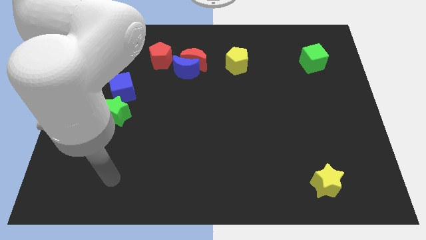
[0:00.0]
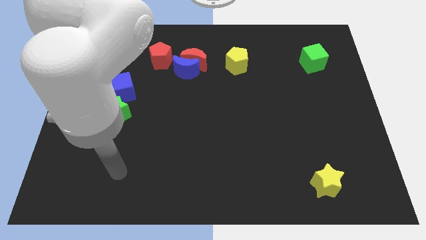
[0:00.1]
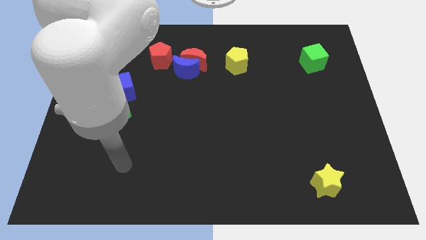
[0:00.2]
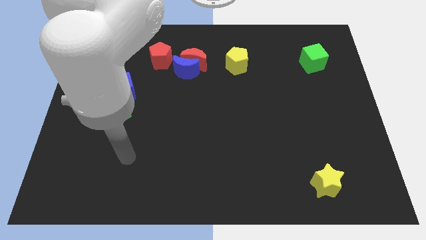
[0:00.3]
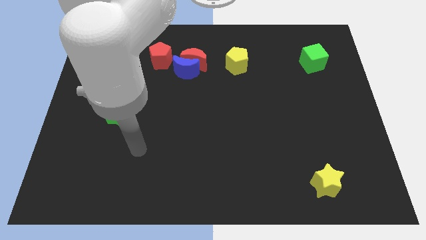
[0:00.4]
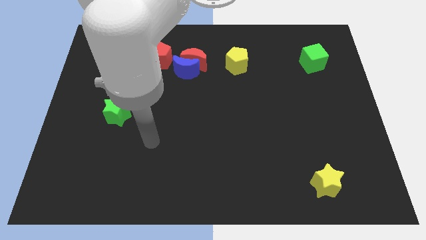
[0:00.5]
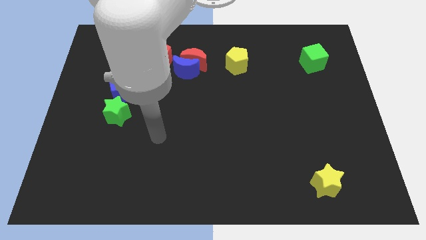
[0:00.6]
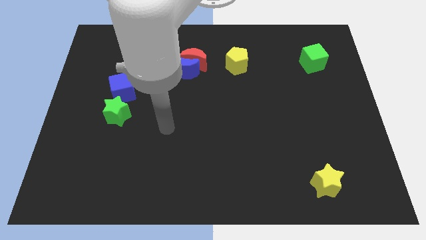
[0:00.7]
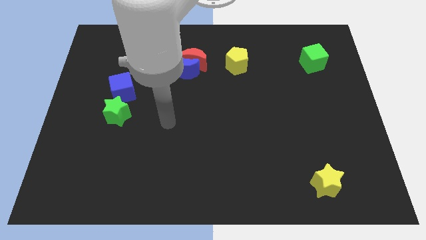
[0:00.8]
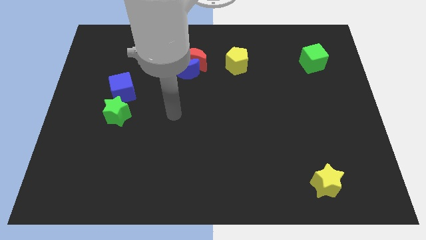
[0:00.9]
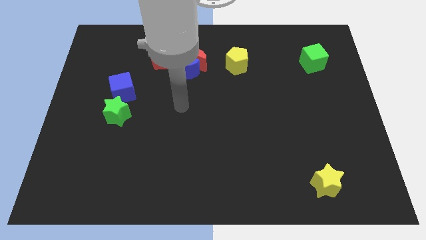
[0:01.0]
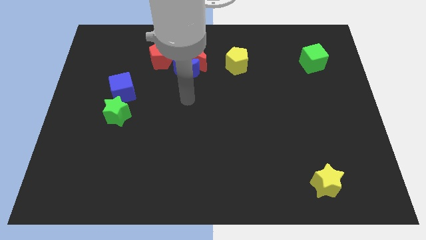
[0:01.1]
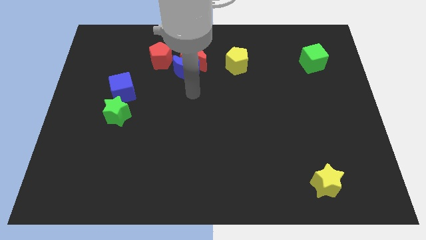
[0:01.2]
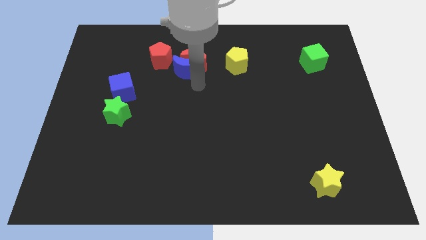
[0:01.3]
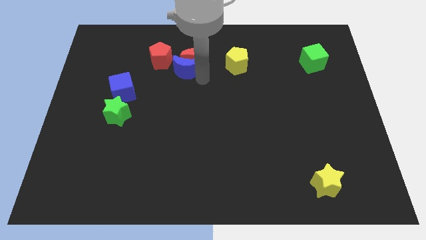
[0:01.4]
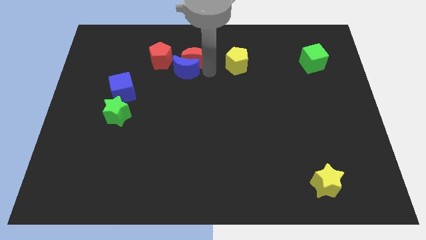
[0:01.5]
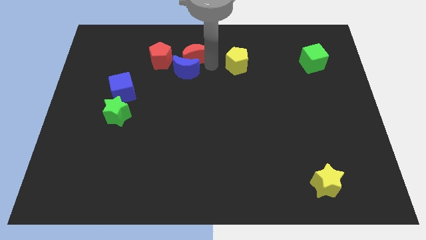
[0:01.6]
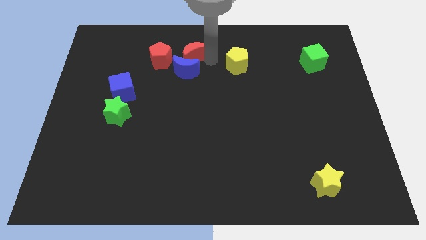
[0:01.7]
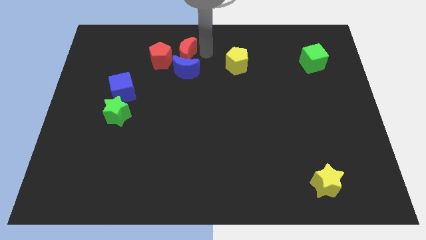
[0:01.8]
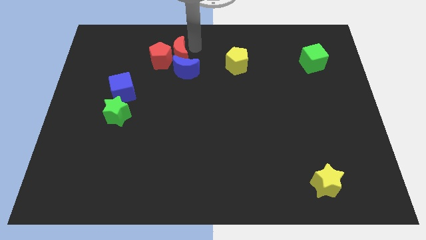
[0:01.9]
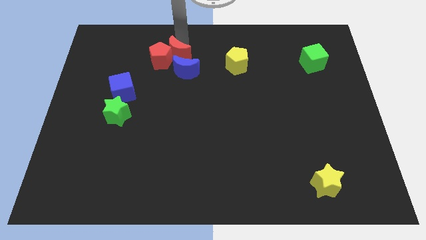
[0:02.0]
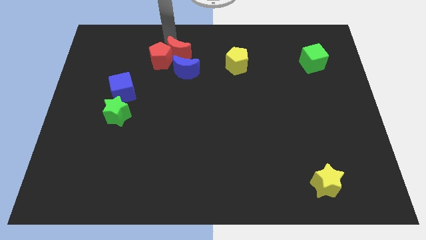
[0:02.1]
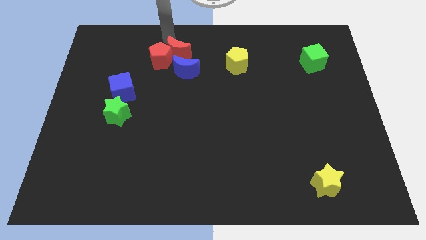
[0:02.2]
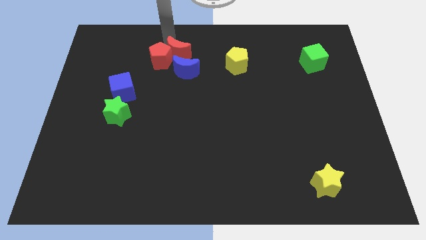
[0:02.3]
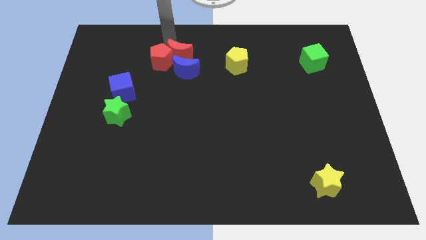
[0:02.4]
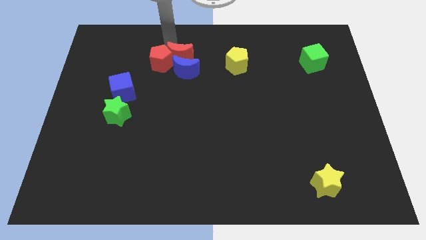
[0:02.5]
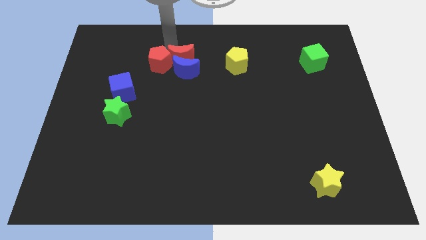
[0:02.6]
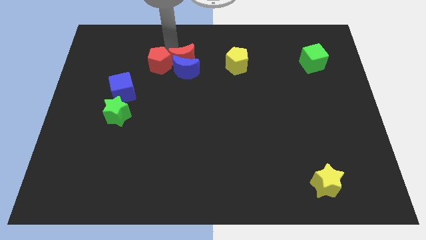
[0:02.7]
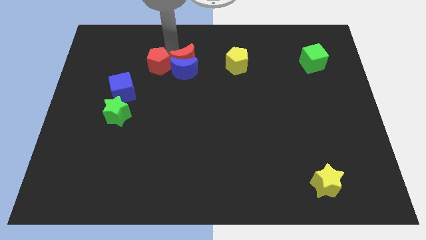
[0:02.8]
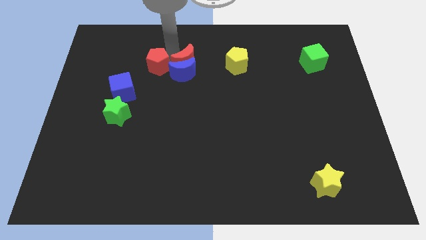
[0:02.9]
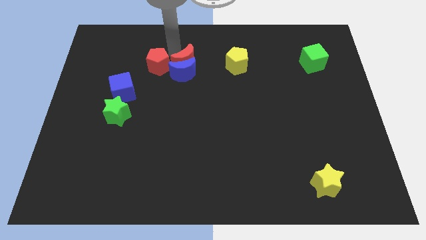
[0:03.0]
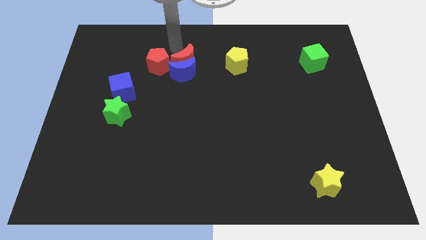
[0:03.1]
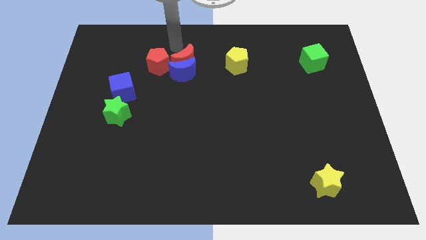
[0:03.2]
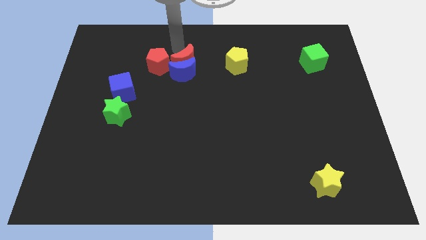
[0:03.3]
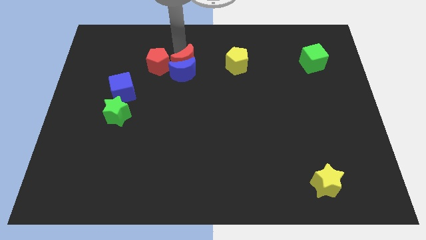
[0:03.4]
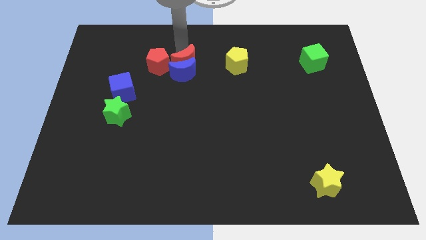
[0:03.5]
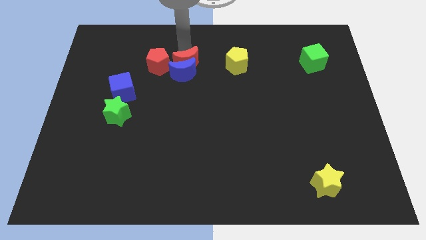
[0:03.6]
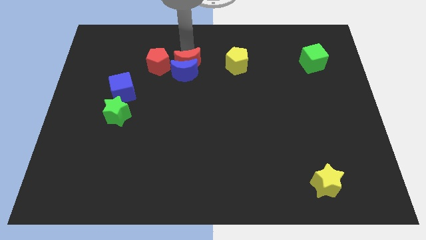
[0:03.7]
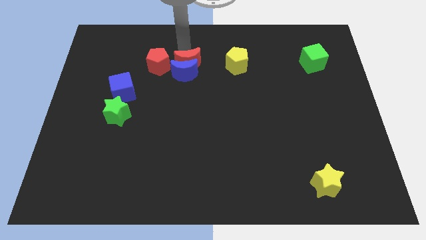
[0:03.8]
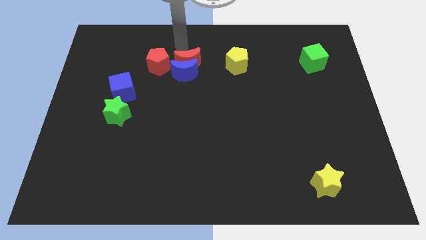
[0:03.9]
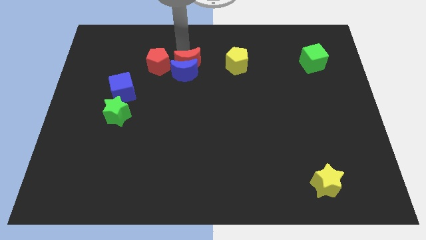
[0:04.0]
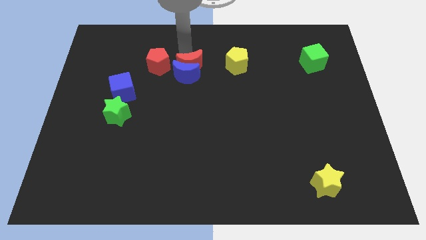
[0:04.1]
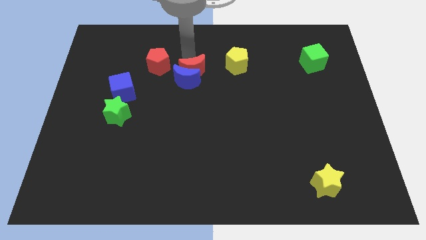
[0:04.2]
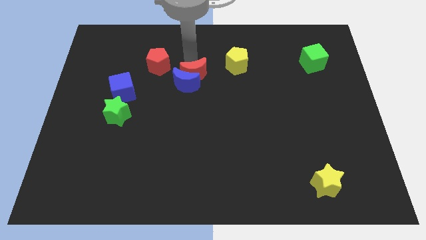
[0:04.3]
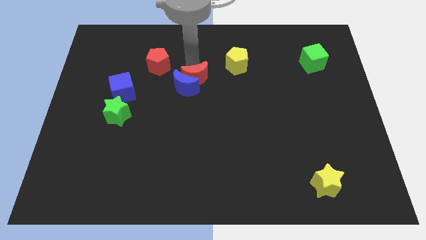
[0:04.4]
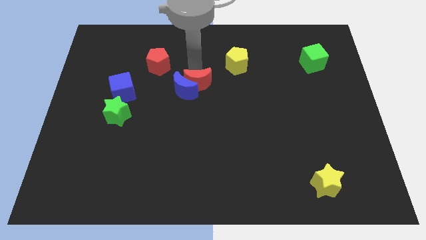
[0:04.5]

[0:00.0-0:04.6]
slightly push the red moon downwards

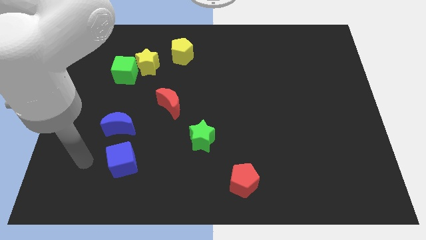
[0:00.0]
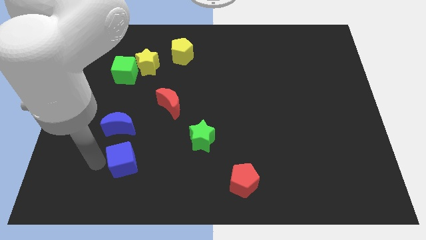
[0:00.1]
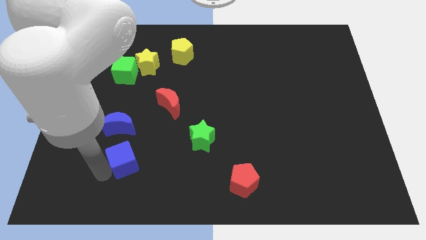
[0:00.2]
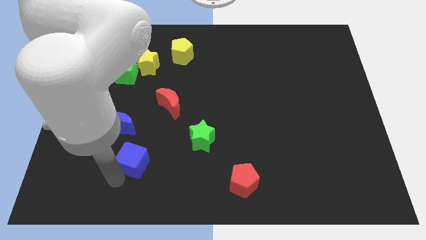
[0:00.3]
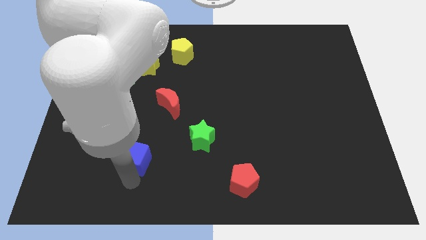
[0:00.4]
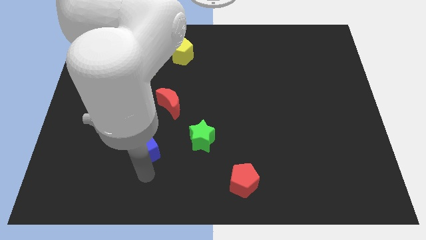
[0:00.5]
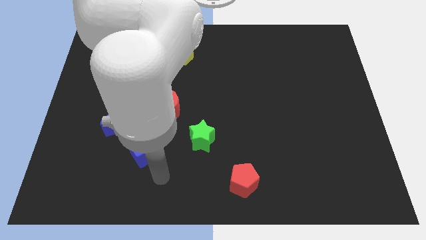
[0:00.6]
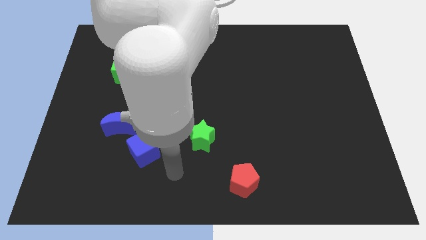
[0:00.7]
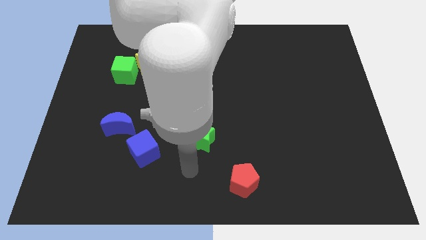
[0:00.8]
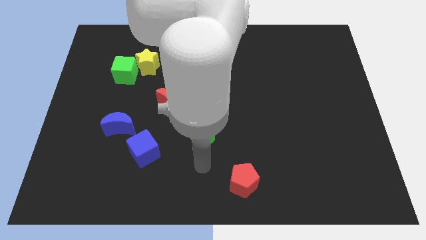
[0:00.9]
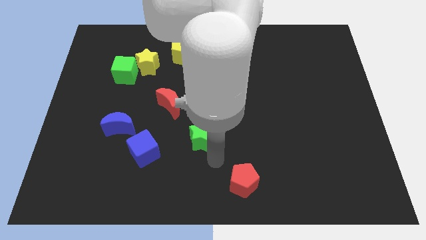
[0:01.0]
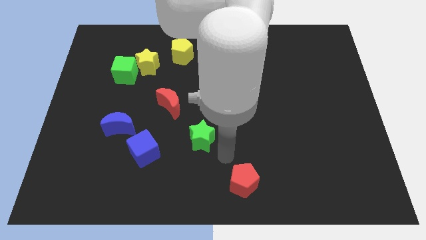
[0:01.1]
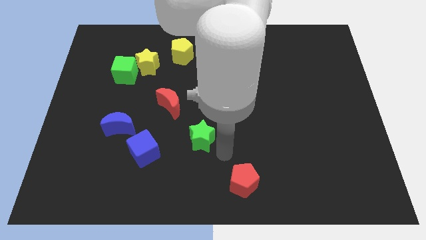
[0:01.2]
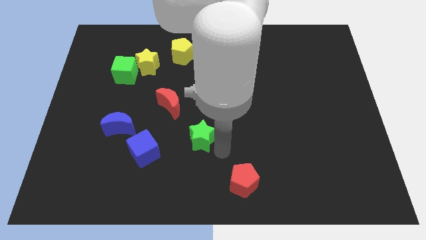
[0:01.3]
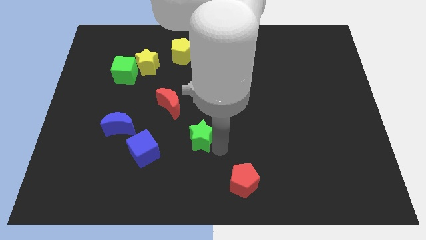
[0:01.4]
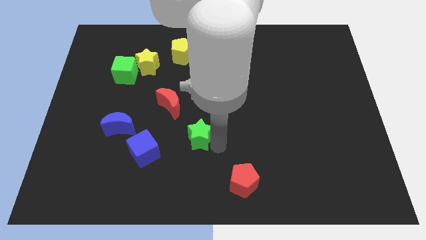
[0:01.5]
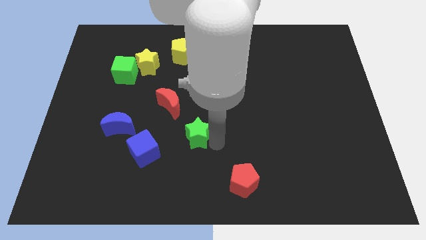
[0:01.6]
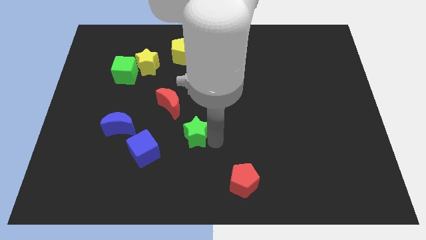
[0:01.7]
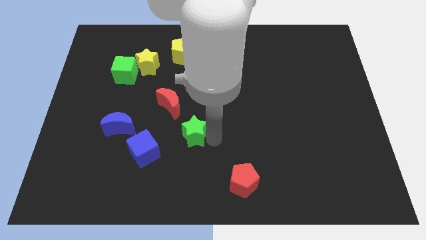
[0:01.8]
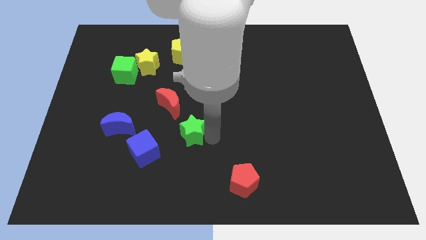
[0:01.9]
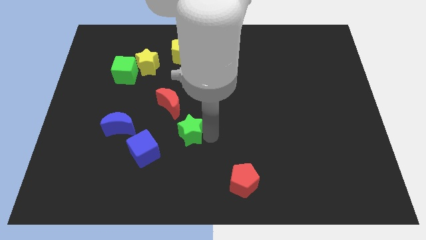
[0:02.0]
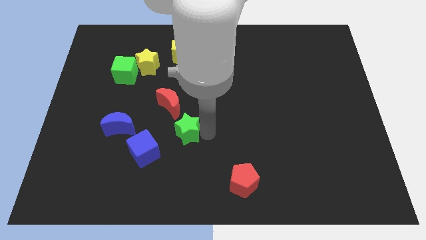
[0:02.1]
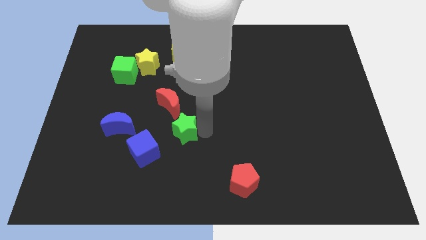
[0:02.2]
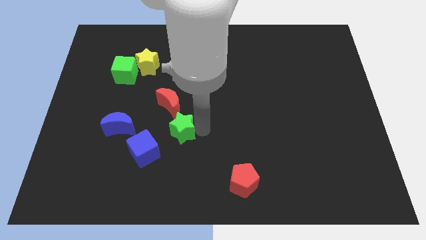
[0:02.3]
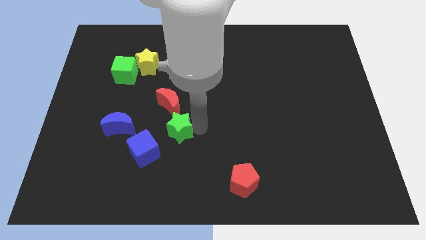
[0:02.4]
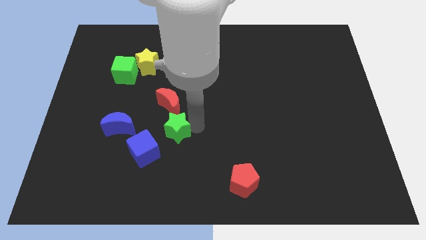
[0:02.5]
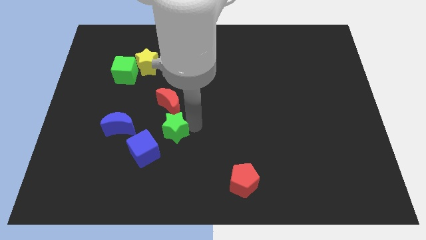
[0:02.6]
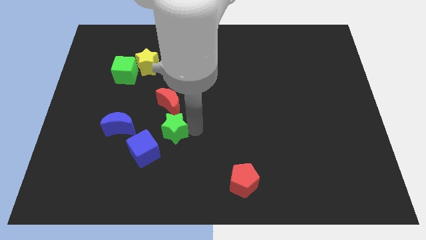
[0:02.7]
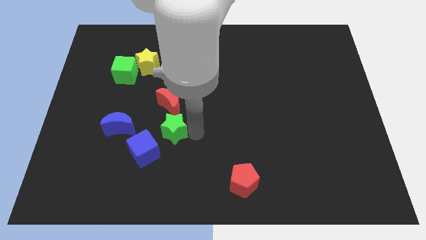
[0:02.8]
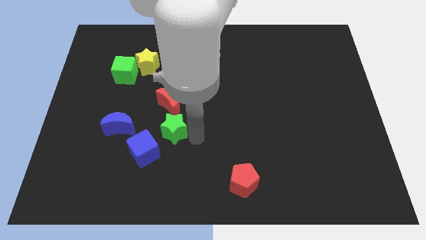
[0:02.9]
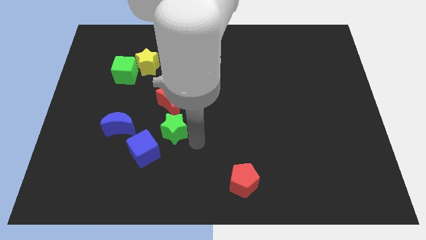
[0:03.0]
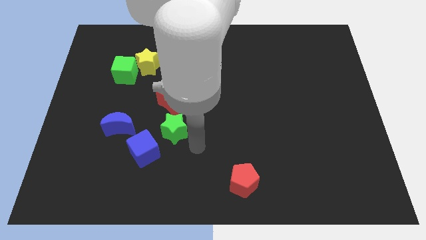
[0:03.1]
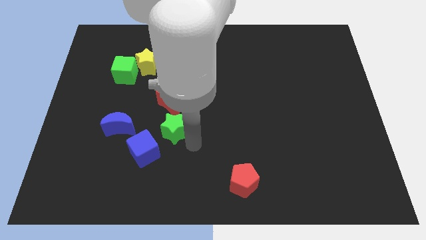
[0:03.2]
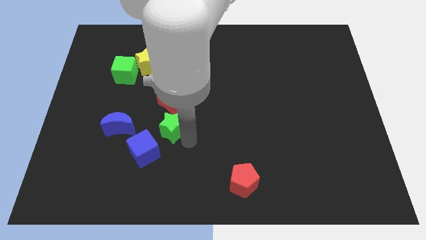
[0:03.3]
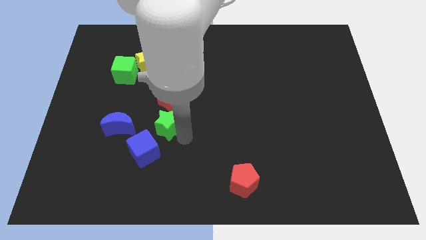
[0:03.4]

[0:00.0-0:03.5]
slightly slide the green star up and left diagonally

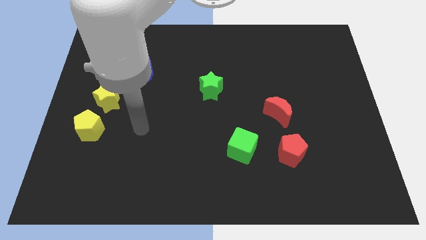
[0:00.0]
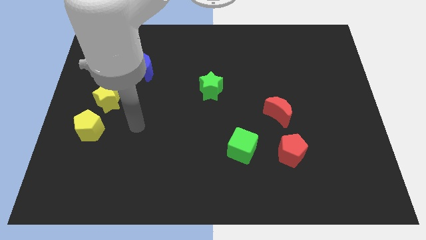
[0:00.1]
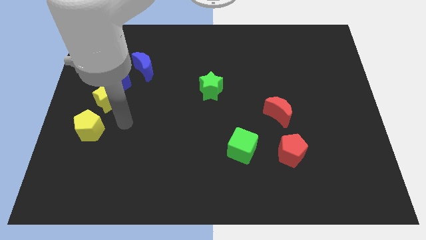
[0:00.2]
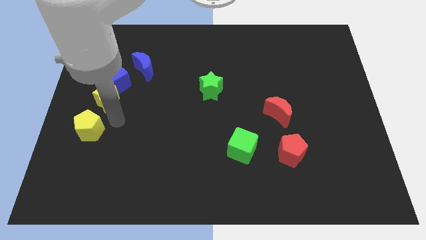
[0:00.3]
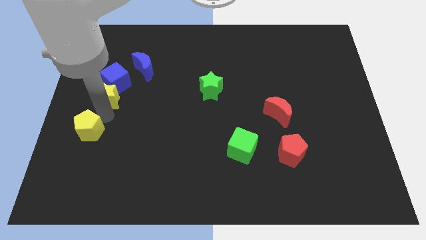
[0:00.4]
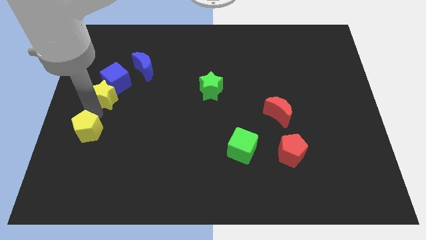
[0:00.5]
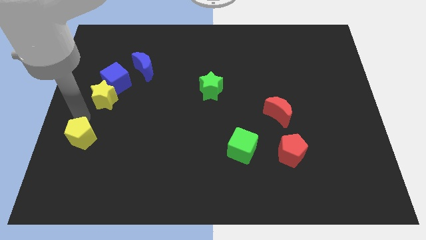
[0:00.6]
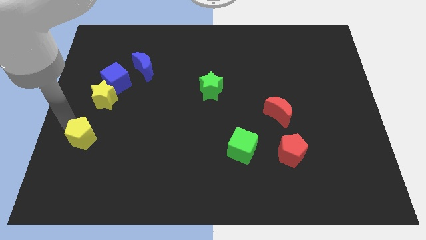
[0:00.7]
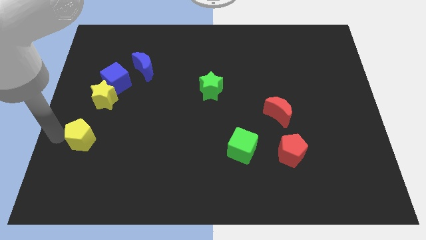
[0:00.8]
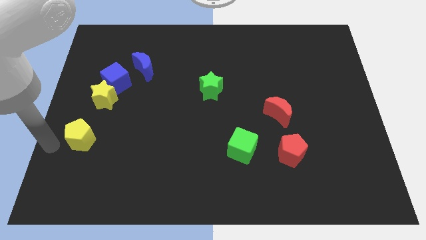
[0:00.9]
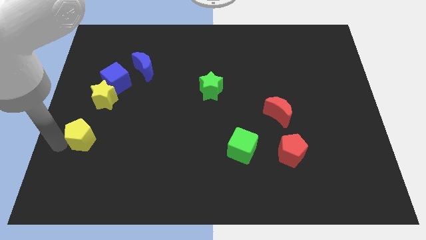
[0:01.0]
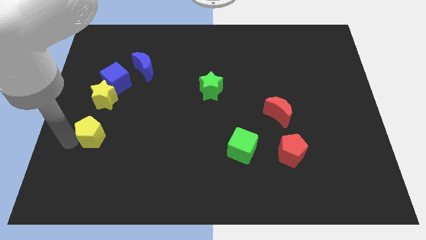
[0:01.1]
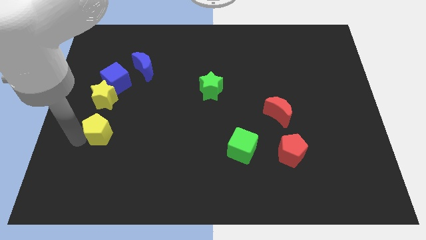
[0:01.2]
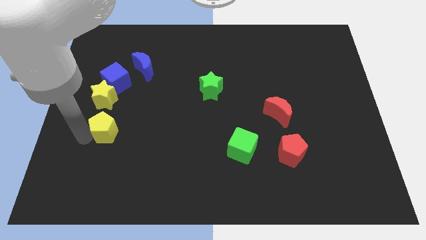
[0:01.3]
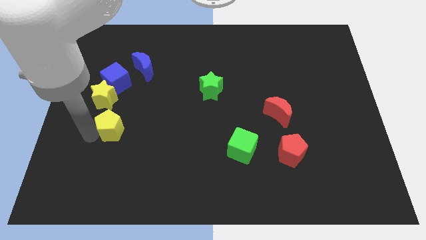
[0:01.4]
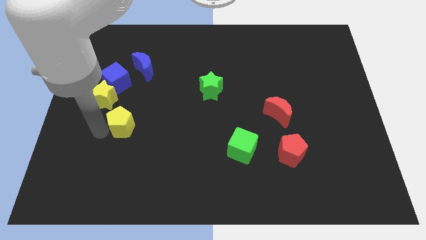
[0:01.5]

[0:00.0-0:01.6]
slightly push the yellow pentagon to the right
